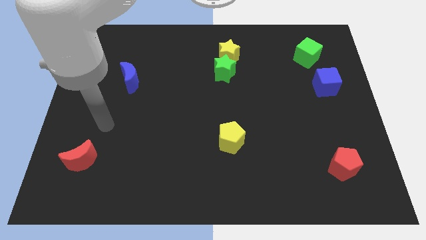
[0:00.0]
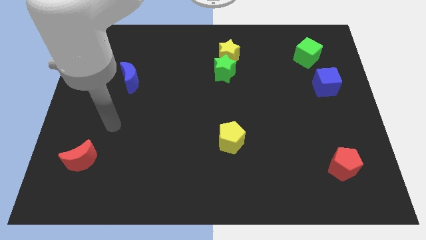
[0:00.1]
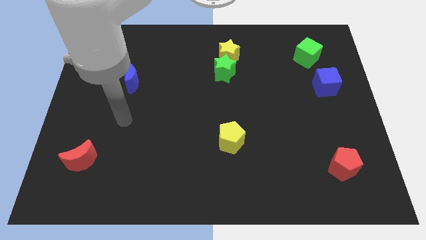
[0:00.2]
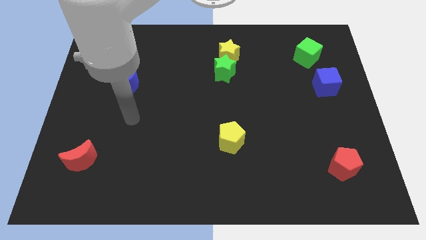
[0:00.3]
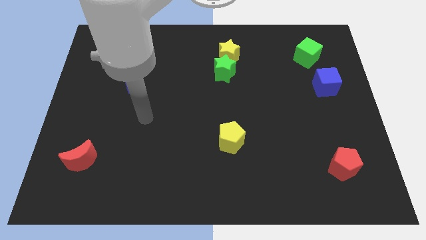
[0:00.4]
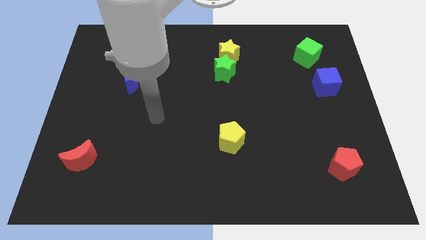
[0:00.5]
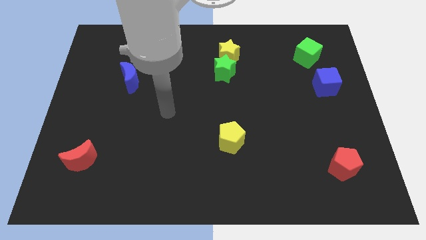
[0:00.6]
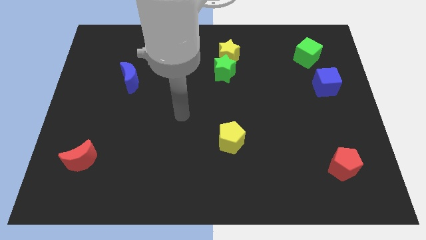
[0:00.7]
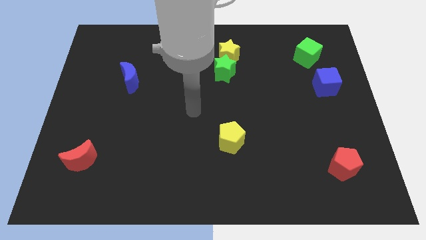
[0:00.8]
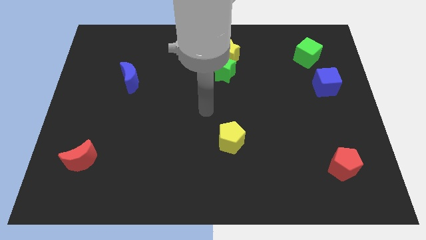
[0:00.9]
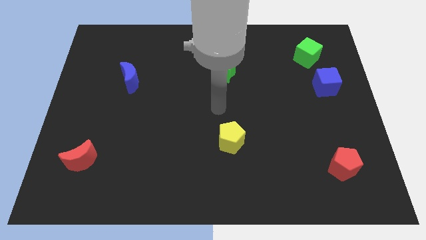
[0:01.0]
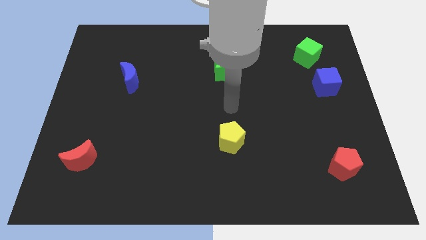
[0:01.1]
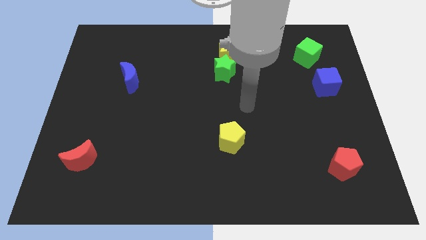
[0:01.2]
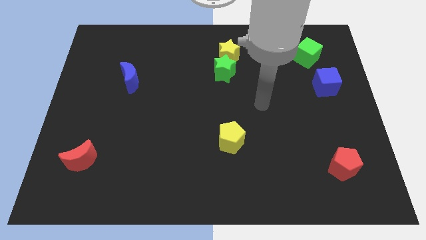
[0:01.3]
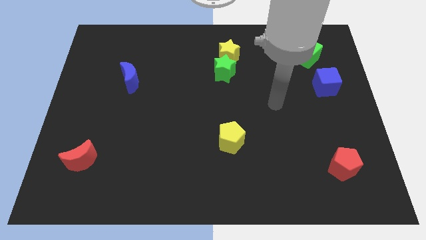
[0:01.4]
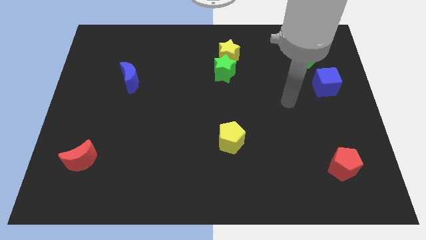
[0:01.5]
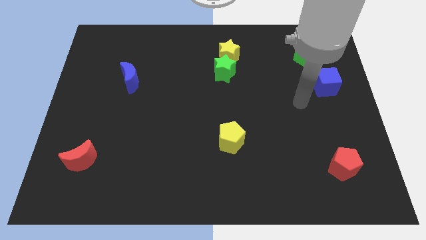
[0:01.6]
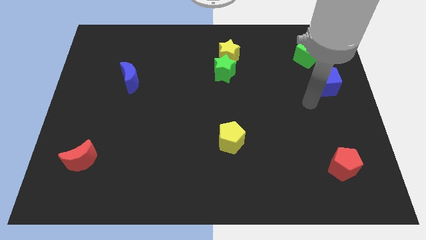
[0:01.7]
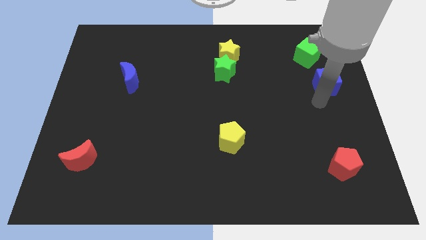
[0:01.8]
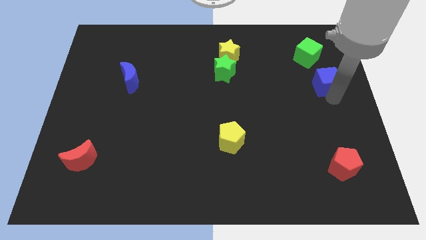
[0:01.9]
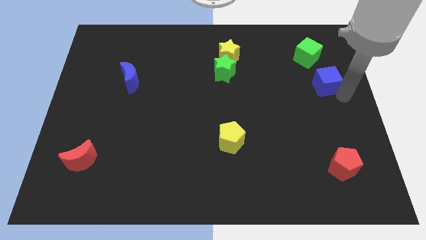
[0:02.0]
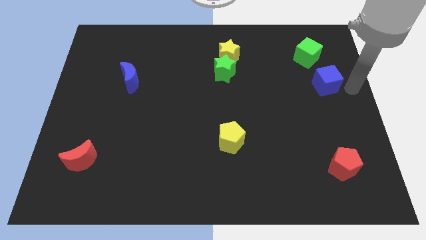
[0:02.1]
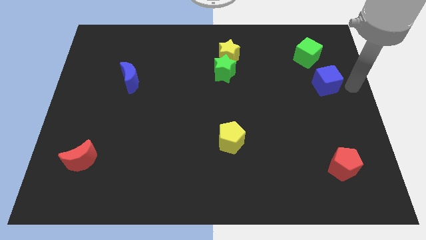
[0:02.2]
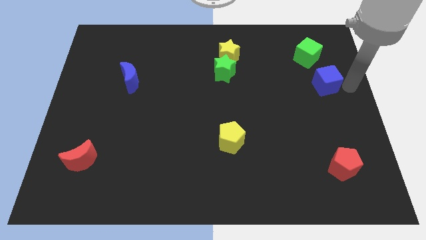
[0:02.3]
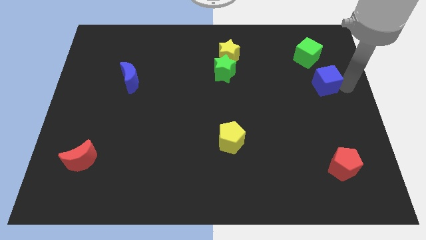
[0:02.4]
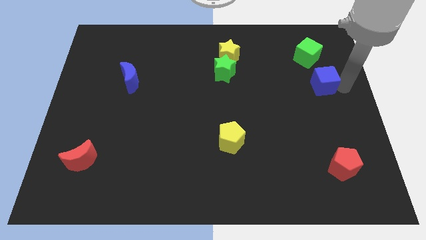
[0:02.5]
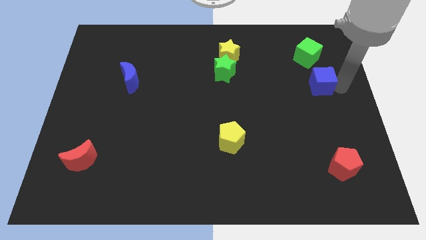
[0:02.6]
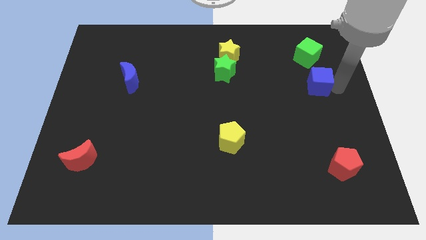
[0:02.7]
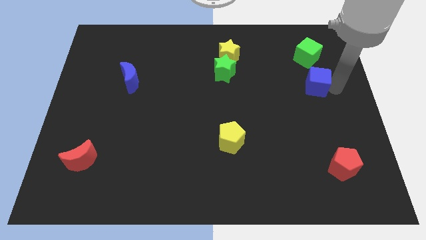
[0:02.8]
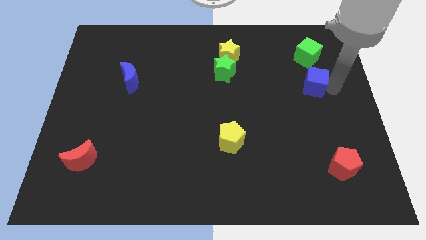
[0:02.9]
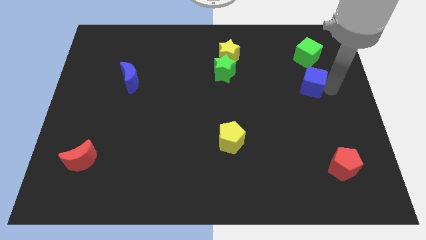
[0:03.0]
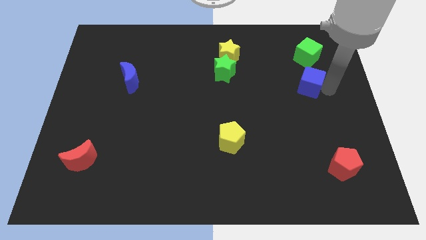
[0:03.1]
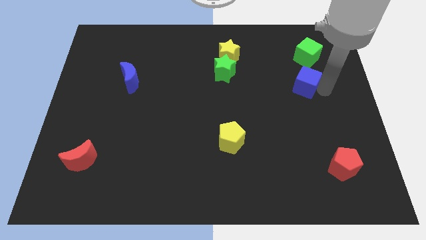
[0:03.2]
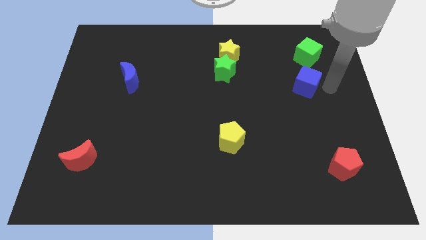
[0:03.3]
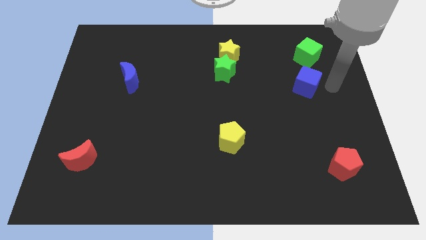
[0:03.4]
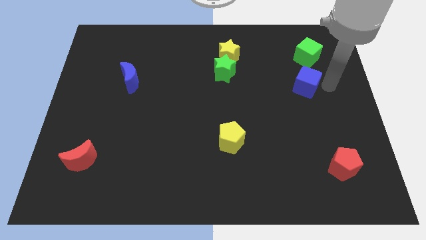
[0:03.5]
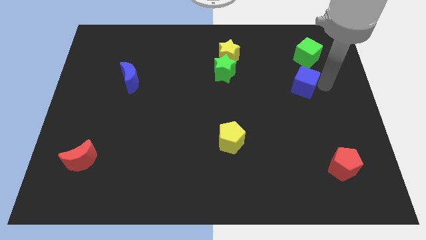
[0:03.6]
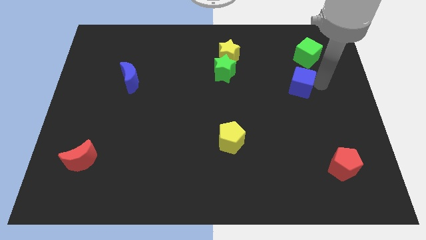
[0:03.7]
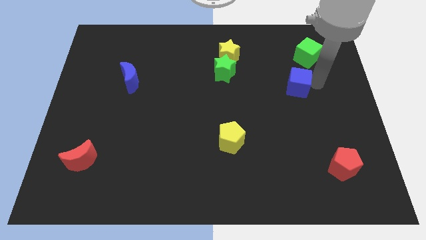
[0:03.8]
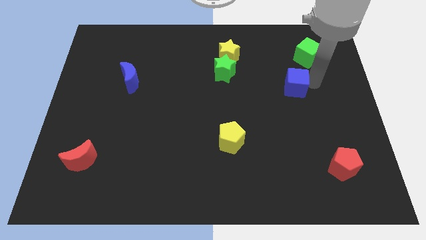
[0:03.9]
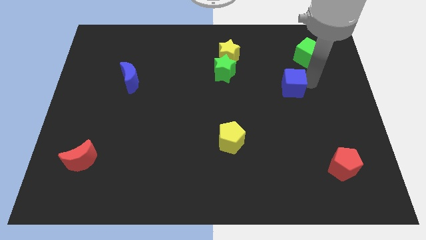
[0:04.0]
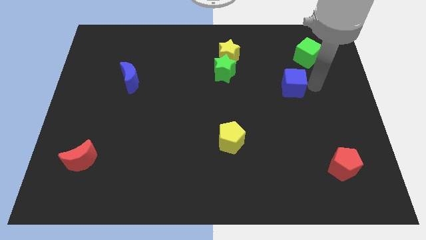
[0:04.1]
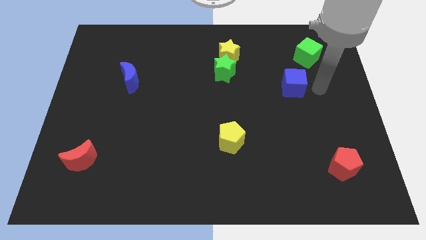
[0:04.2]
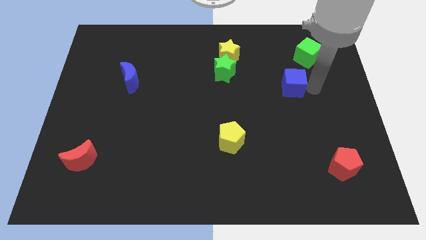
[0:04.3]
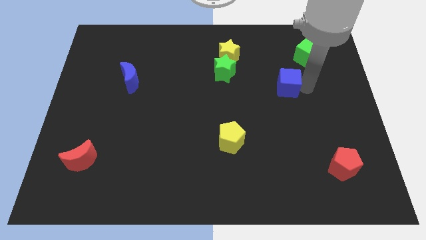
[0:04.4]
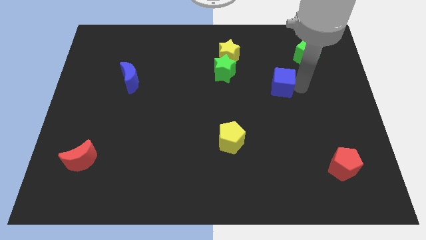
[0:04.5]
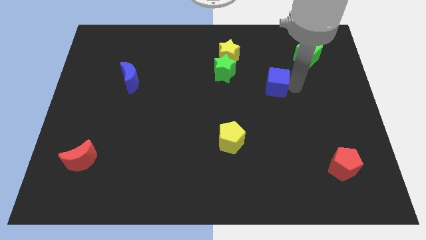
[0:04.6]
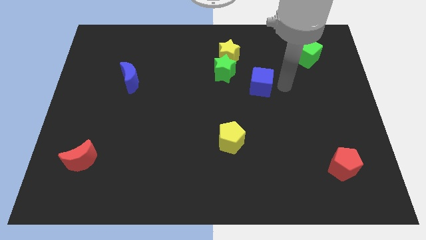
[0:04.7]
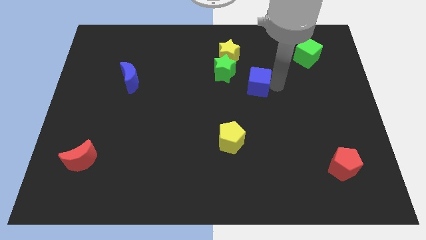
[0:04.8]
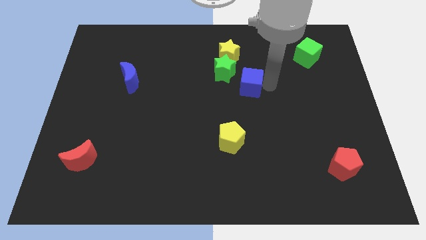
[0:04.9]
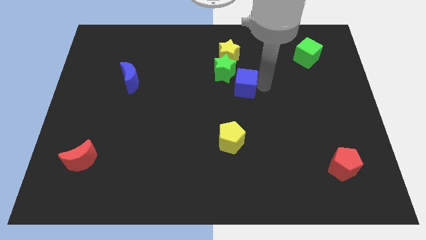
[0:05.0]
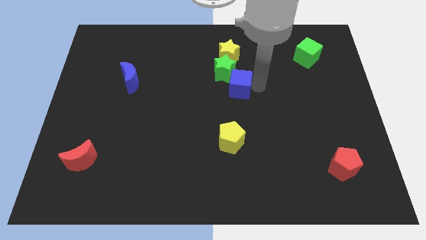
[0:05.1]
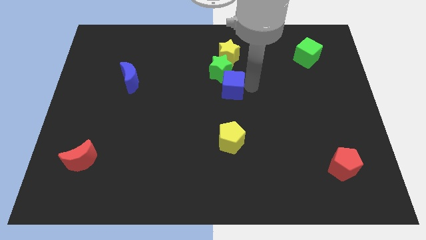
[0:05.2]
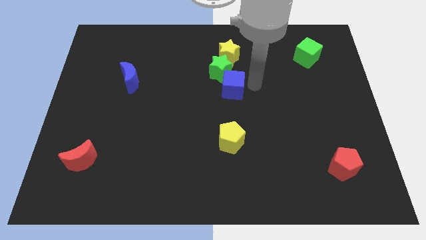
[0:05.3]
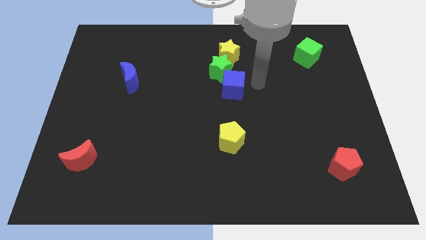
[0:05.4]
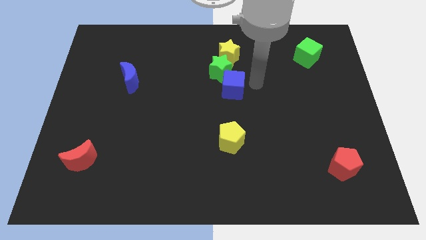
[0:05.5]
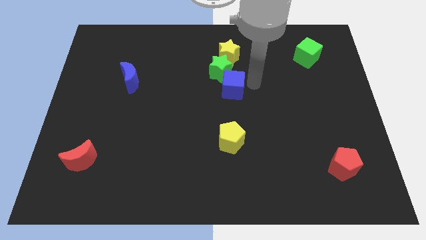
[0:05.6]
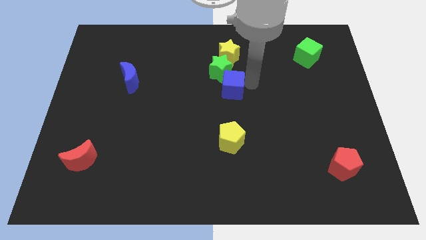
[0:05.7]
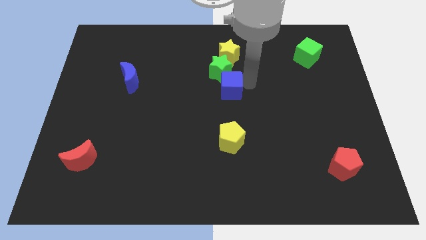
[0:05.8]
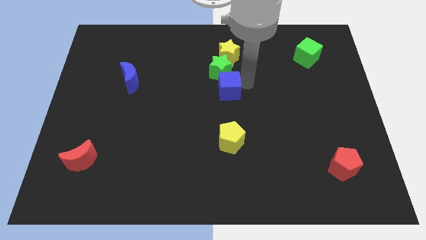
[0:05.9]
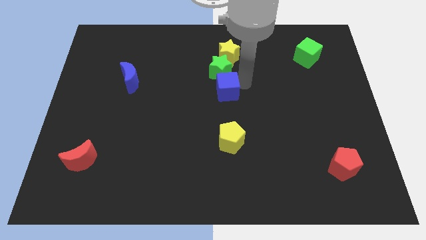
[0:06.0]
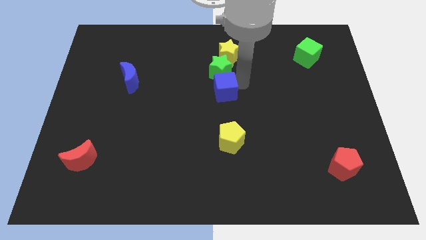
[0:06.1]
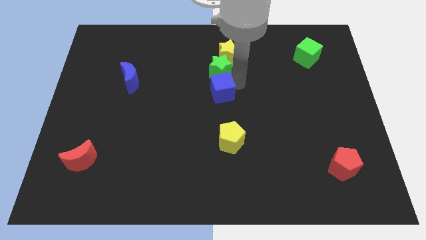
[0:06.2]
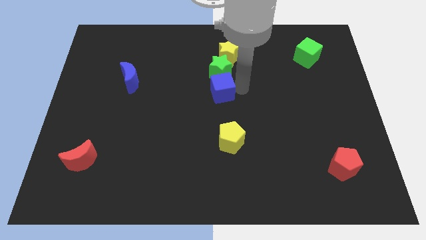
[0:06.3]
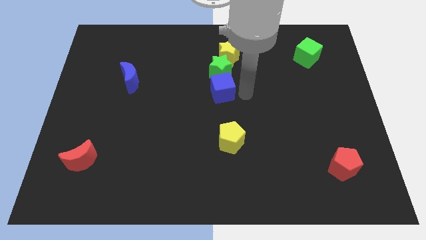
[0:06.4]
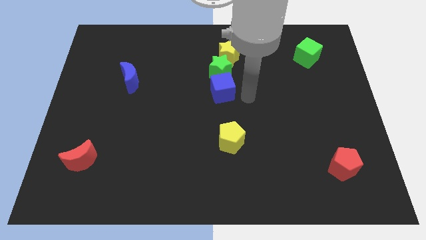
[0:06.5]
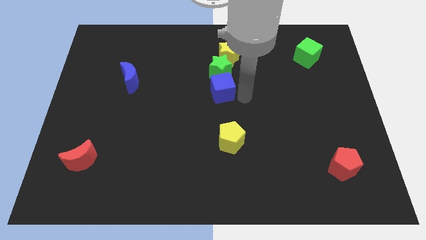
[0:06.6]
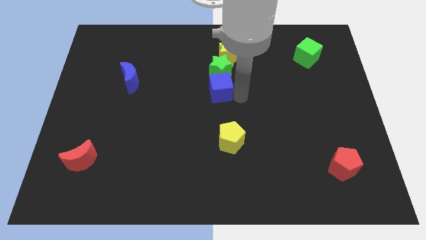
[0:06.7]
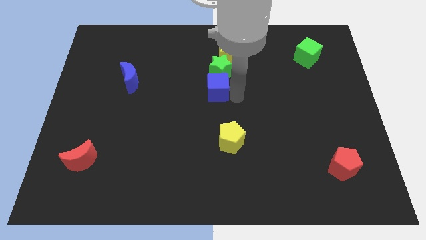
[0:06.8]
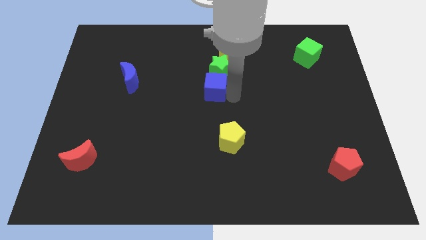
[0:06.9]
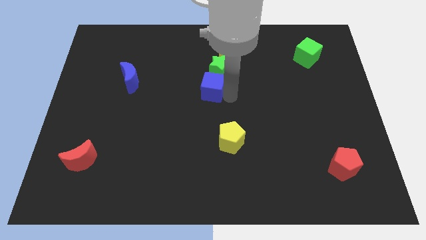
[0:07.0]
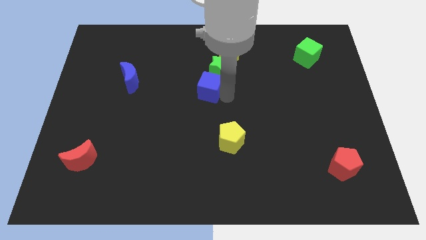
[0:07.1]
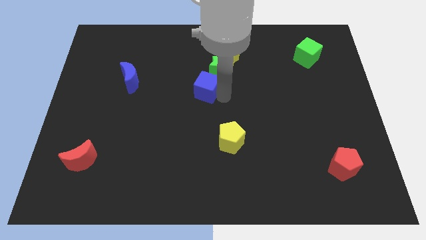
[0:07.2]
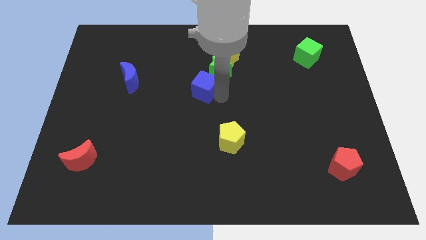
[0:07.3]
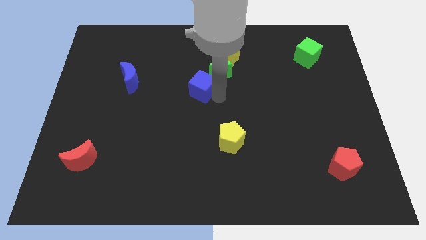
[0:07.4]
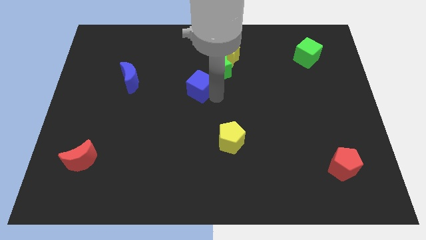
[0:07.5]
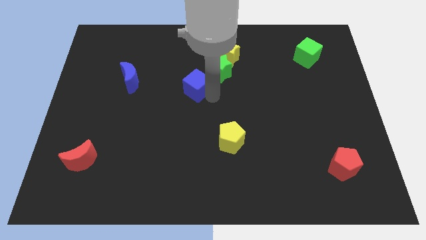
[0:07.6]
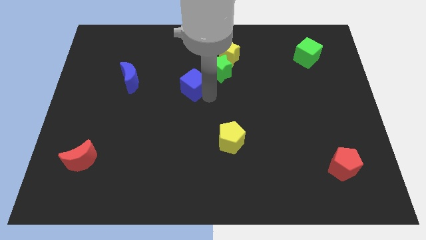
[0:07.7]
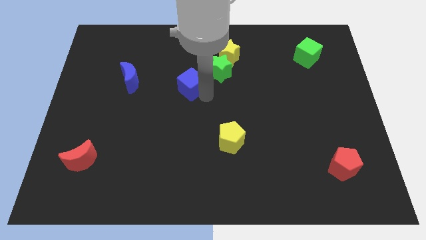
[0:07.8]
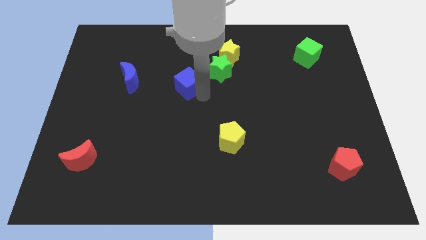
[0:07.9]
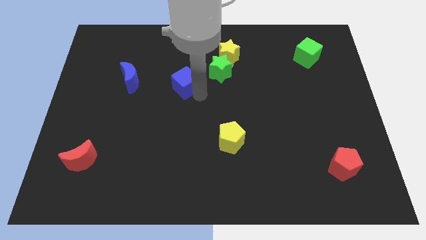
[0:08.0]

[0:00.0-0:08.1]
slide the blue cube to the left side of the green star
